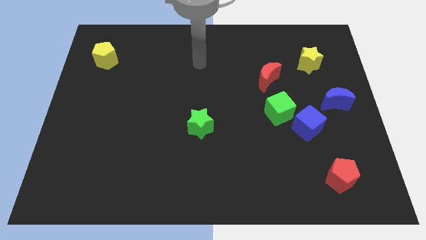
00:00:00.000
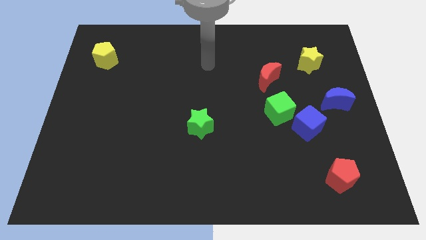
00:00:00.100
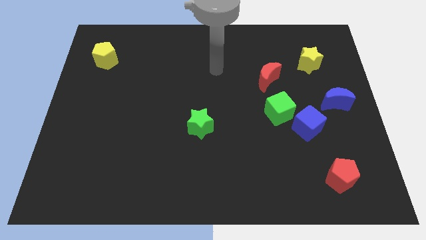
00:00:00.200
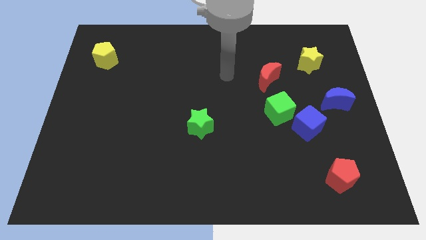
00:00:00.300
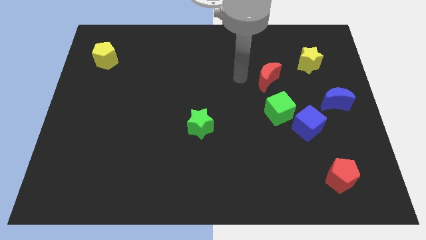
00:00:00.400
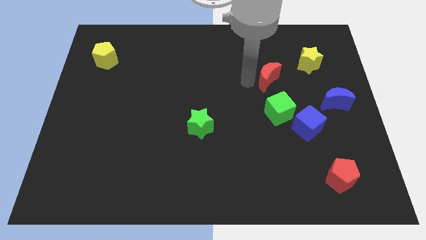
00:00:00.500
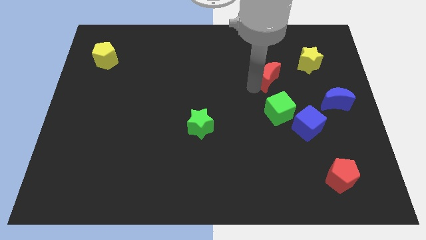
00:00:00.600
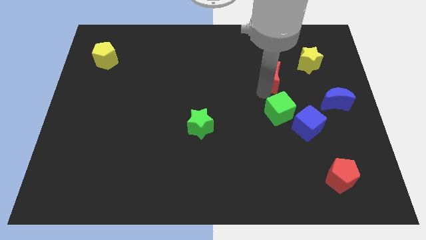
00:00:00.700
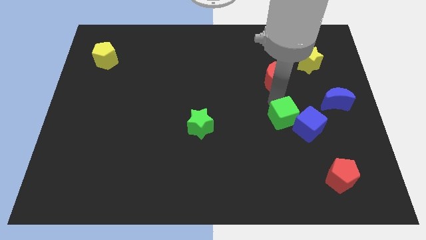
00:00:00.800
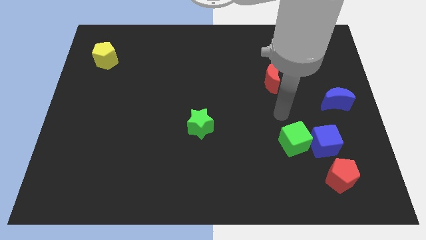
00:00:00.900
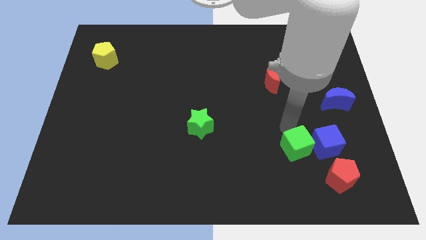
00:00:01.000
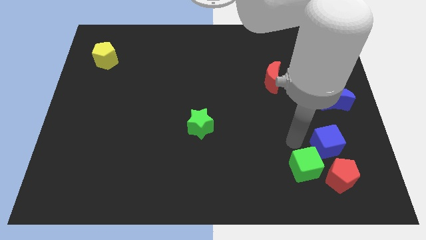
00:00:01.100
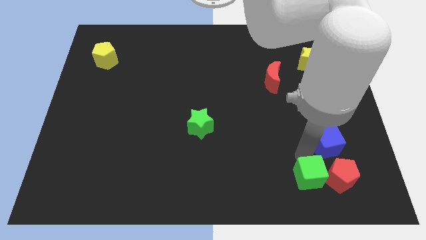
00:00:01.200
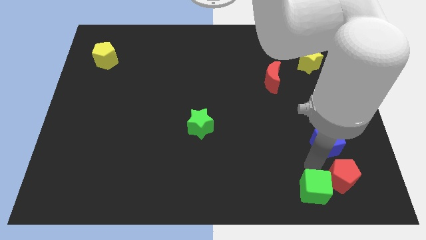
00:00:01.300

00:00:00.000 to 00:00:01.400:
move the blue cube away from the green cube

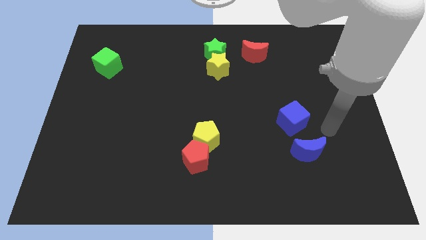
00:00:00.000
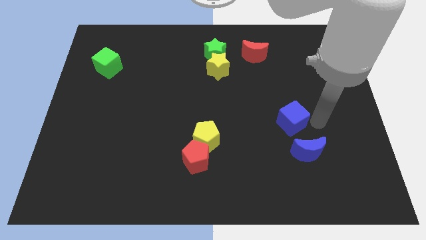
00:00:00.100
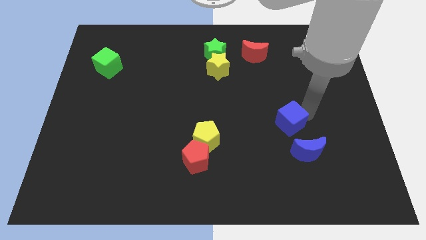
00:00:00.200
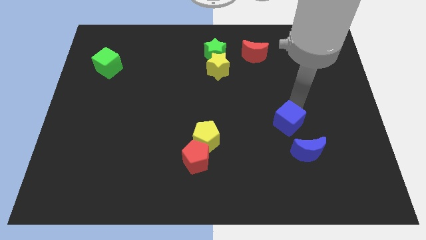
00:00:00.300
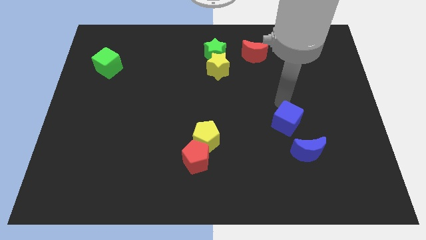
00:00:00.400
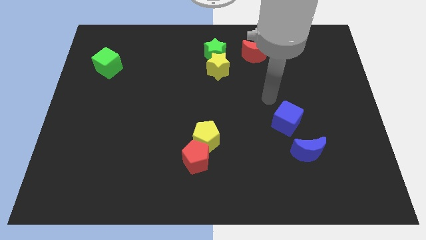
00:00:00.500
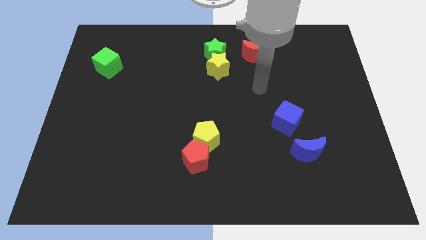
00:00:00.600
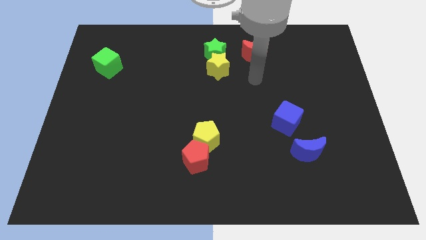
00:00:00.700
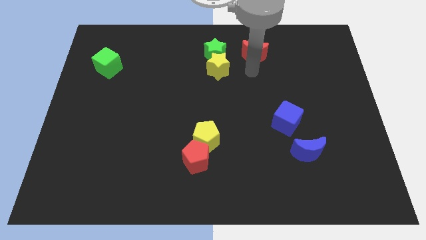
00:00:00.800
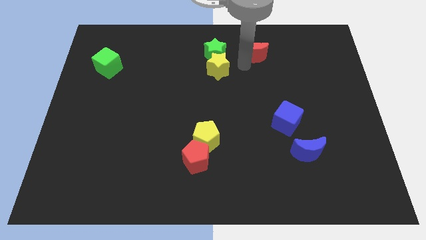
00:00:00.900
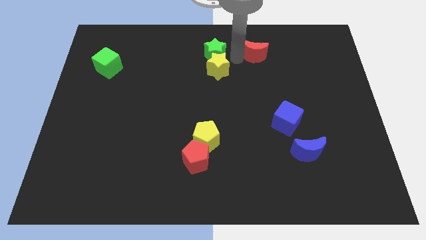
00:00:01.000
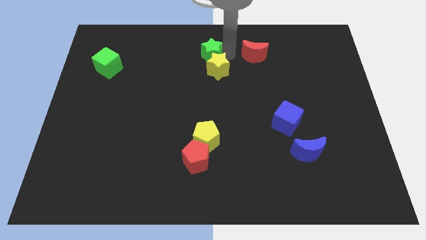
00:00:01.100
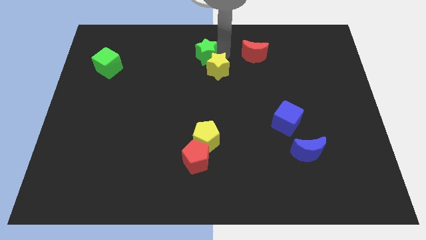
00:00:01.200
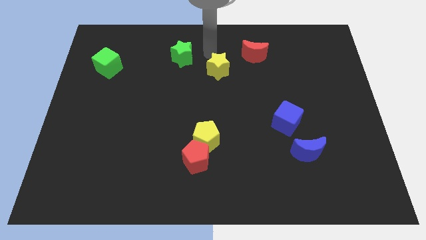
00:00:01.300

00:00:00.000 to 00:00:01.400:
move the yellow star away from the green star

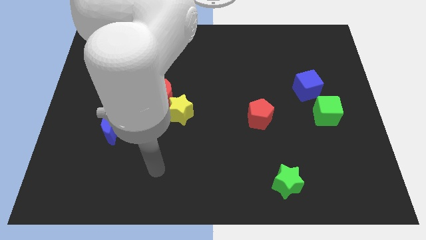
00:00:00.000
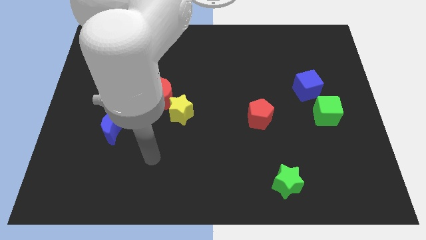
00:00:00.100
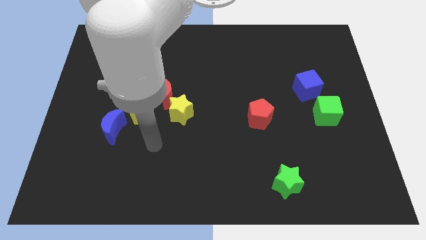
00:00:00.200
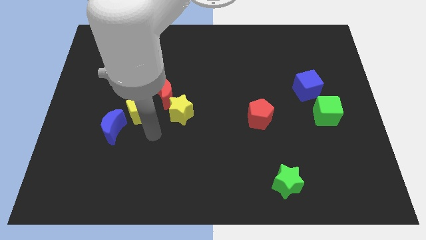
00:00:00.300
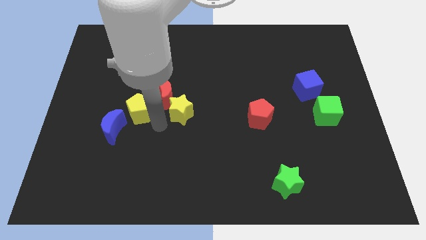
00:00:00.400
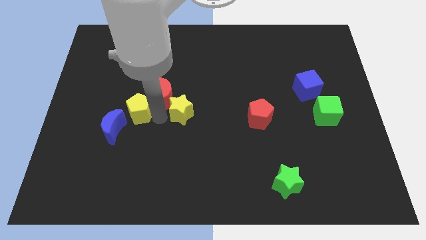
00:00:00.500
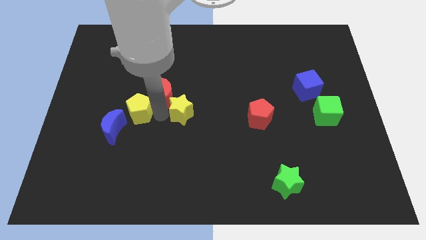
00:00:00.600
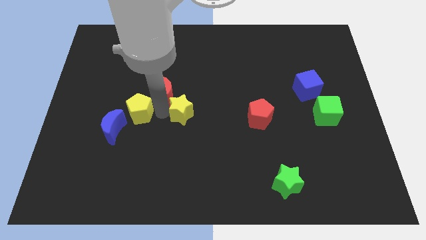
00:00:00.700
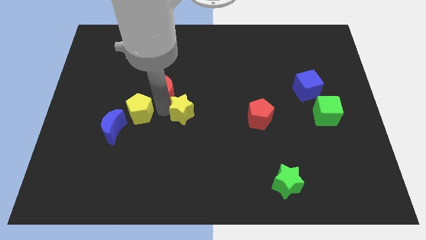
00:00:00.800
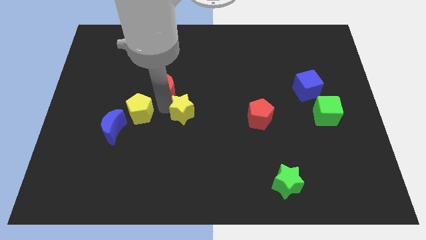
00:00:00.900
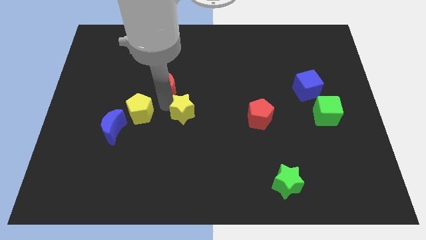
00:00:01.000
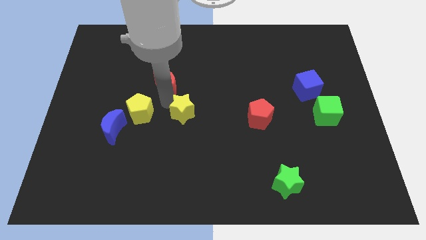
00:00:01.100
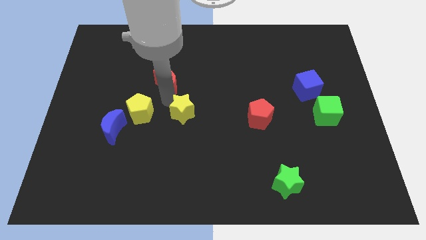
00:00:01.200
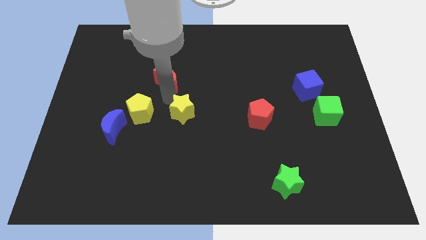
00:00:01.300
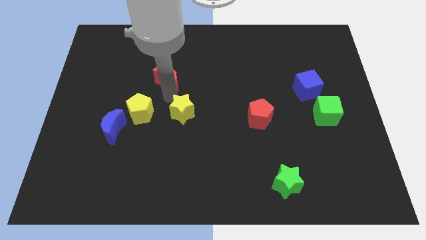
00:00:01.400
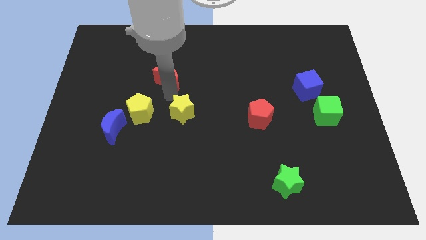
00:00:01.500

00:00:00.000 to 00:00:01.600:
separate the red moon from the yellow star and yellow pentagon

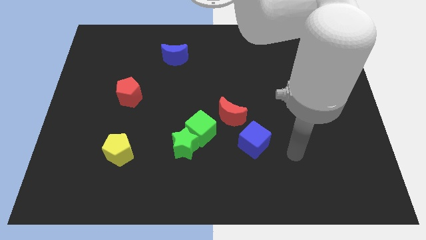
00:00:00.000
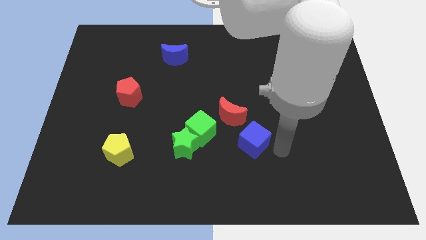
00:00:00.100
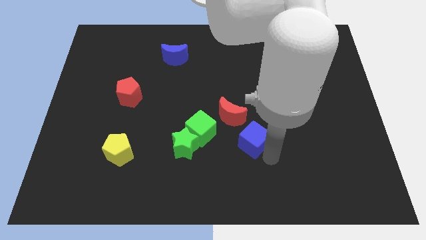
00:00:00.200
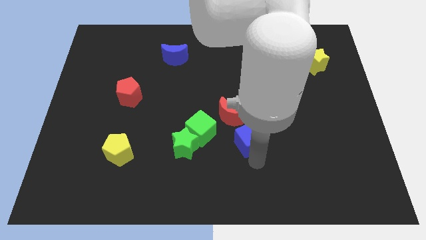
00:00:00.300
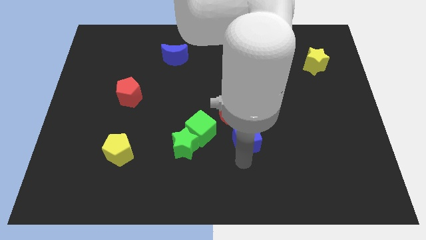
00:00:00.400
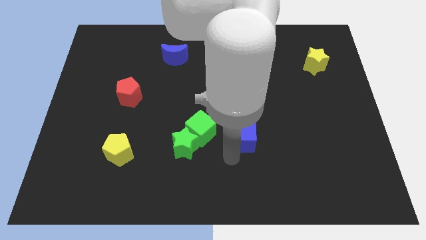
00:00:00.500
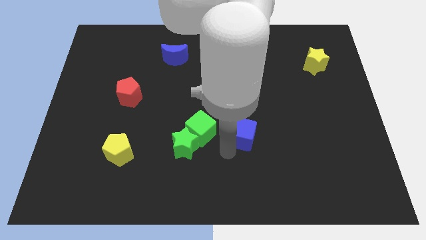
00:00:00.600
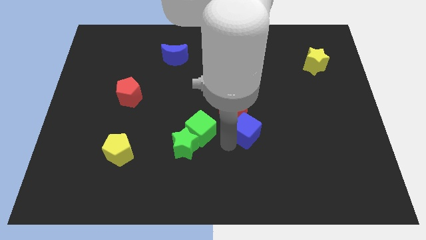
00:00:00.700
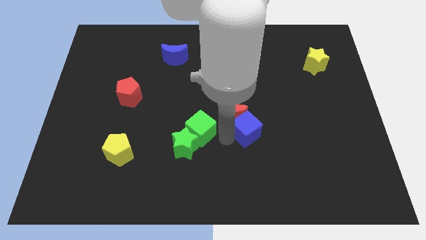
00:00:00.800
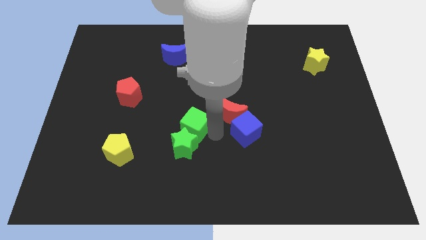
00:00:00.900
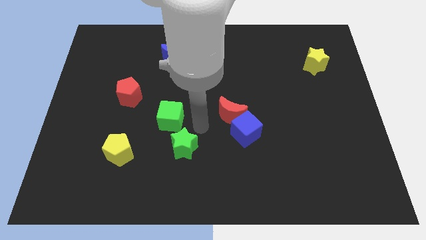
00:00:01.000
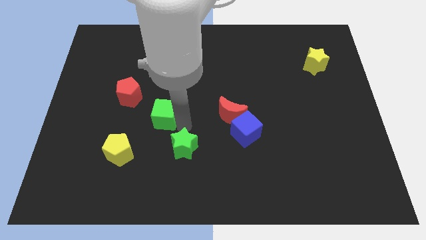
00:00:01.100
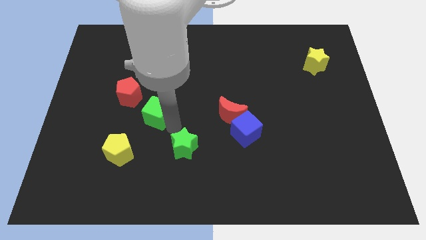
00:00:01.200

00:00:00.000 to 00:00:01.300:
pull the green star apart from the green cube

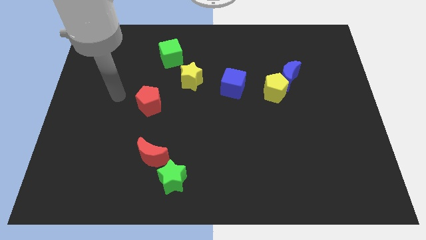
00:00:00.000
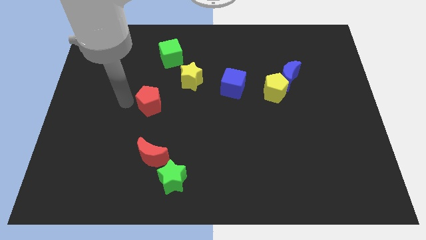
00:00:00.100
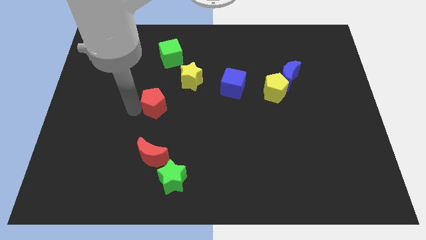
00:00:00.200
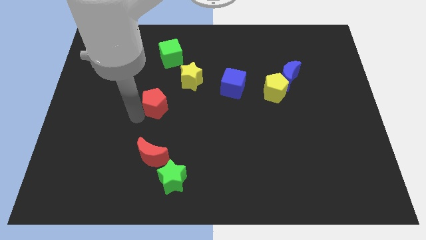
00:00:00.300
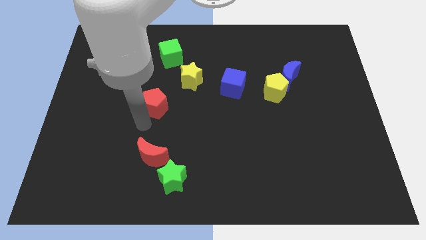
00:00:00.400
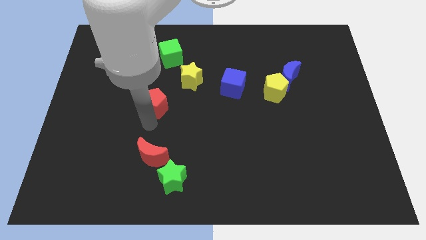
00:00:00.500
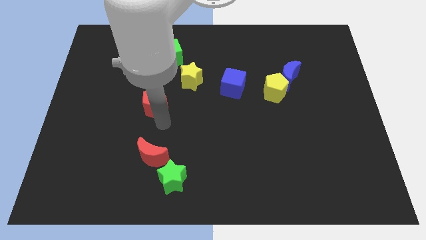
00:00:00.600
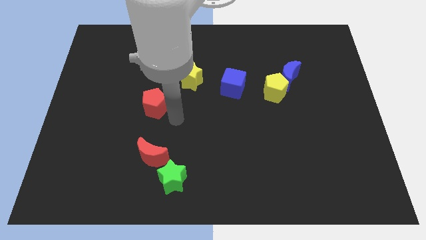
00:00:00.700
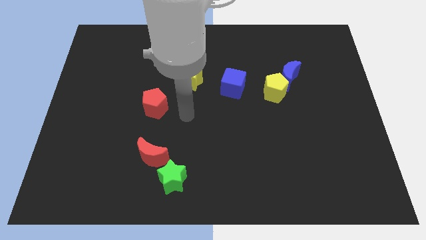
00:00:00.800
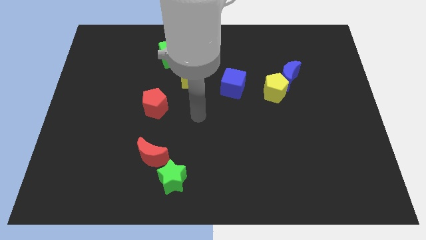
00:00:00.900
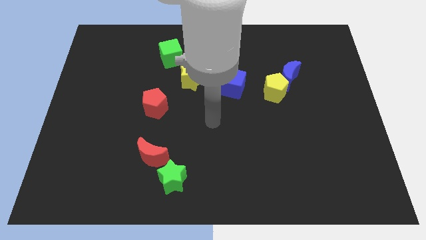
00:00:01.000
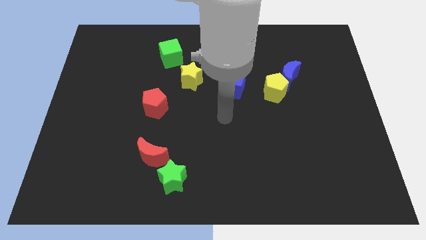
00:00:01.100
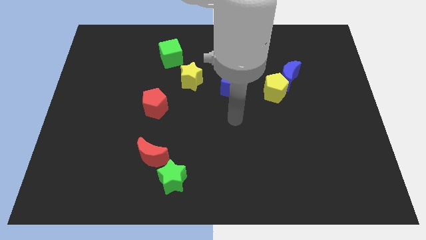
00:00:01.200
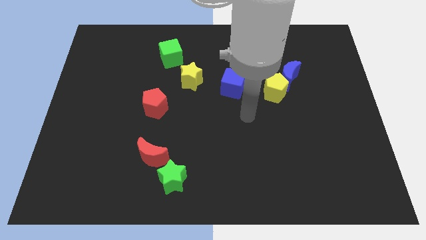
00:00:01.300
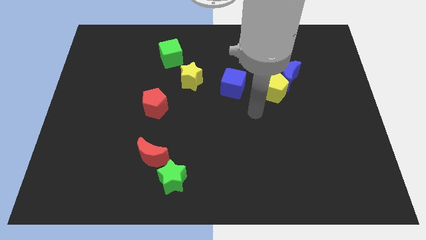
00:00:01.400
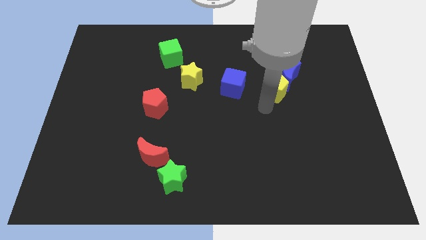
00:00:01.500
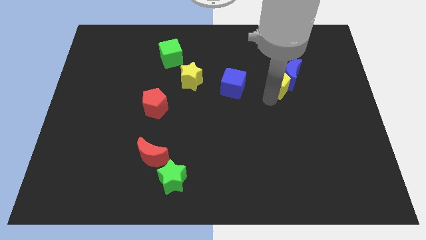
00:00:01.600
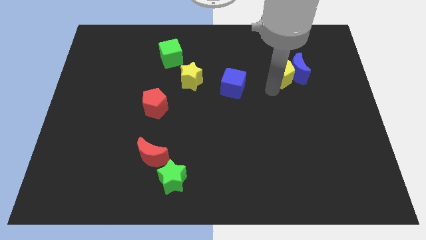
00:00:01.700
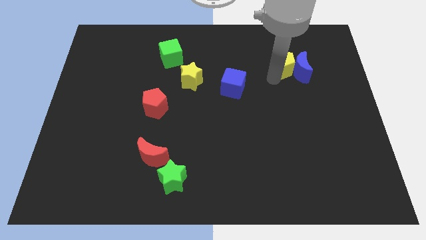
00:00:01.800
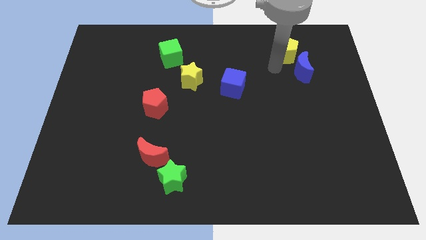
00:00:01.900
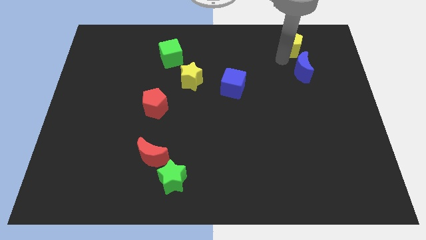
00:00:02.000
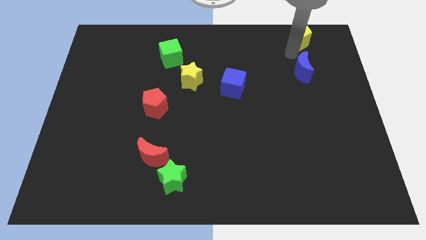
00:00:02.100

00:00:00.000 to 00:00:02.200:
separate the blue moon from the yellow pentagon

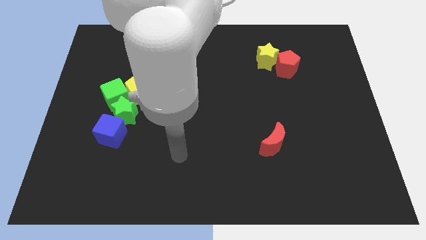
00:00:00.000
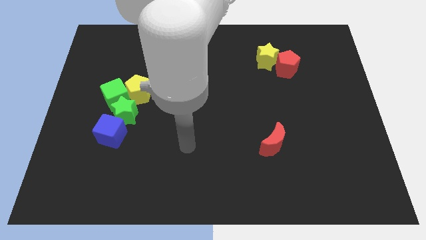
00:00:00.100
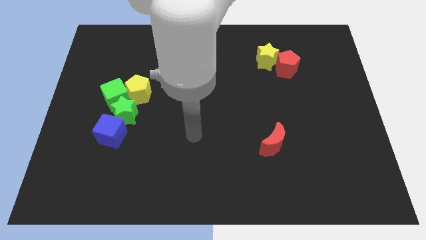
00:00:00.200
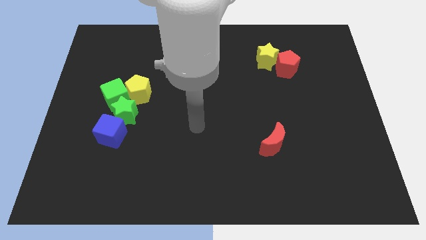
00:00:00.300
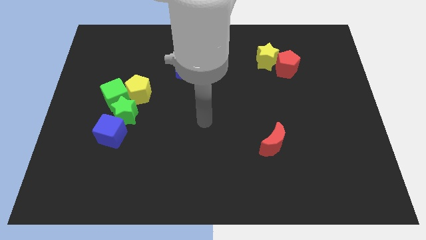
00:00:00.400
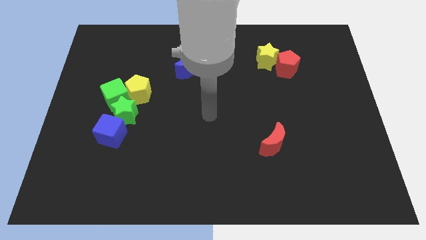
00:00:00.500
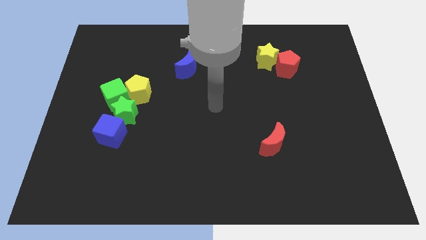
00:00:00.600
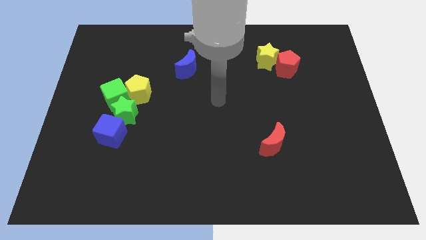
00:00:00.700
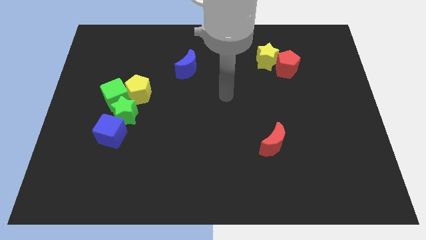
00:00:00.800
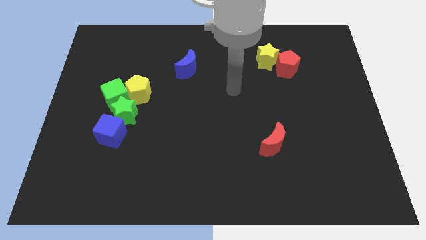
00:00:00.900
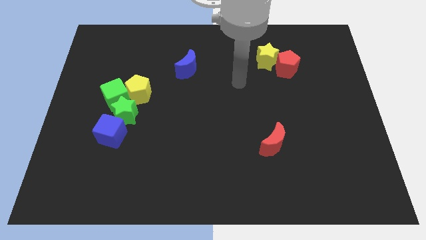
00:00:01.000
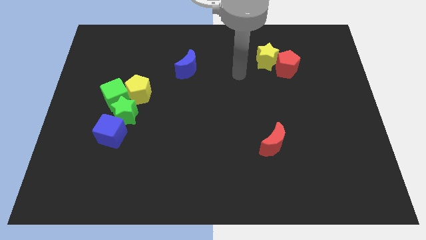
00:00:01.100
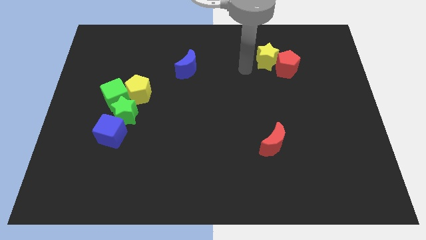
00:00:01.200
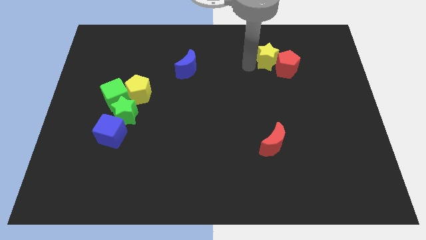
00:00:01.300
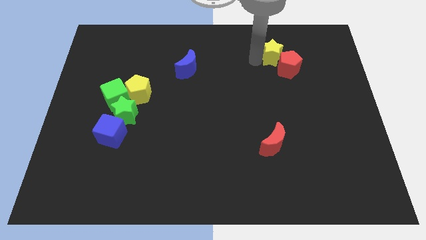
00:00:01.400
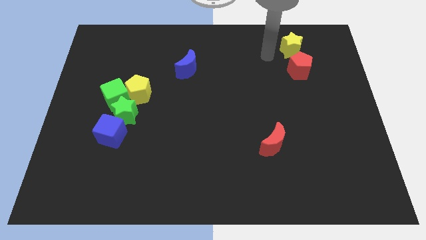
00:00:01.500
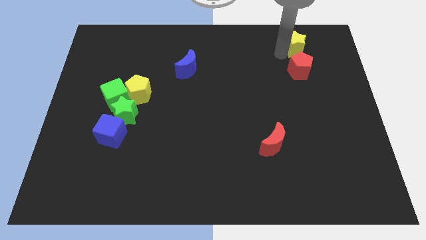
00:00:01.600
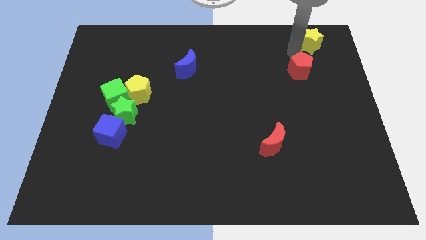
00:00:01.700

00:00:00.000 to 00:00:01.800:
pull the red pentagon apart from the yellow star
